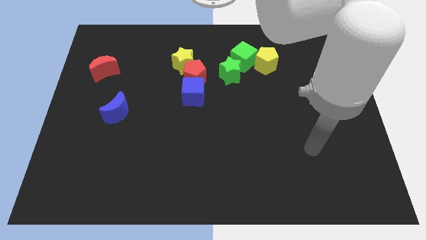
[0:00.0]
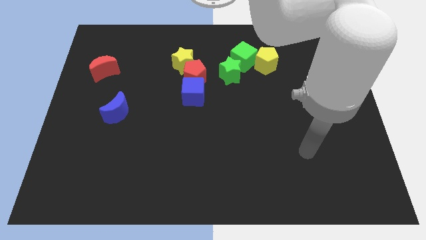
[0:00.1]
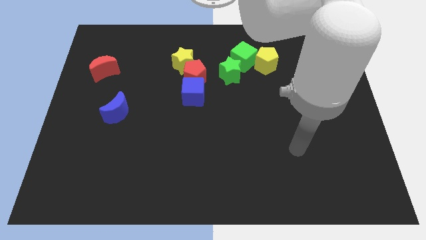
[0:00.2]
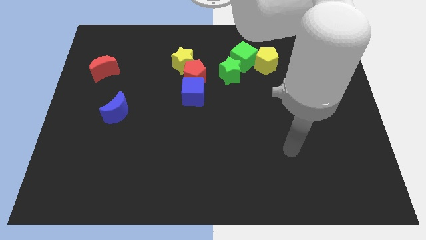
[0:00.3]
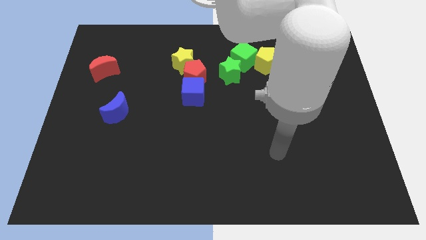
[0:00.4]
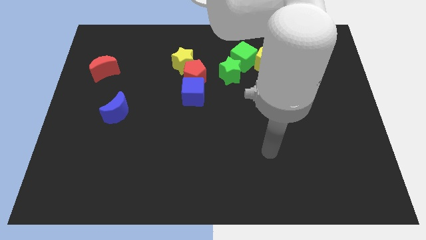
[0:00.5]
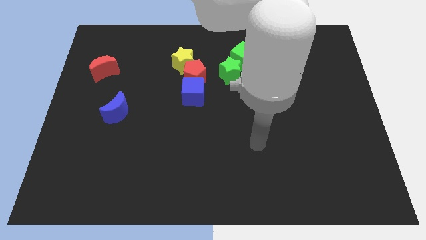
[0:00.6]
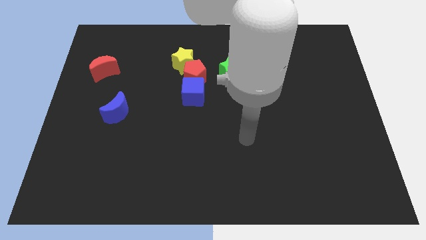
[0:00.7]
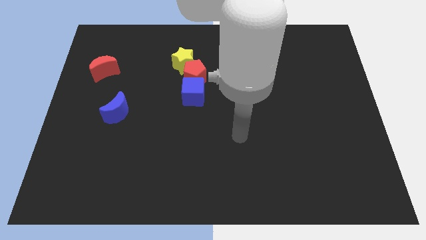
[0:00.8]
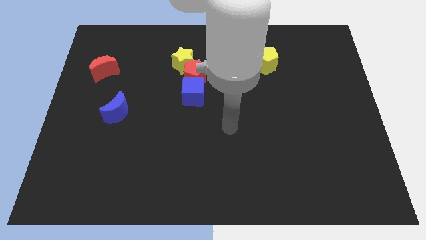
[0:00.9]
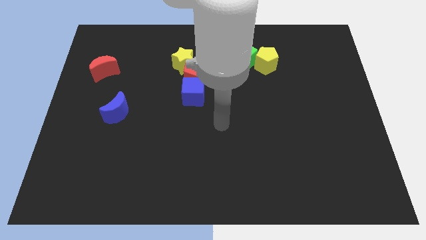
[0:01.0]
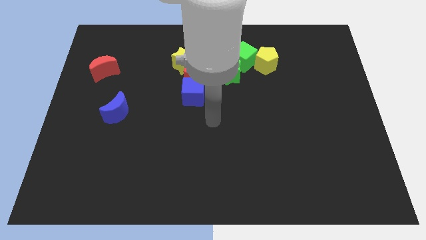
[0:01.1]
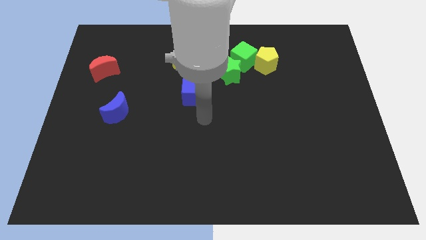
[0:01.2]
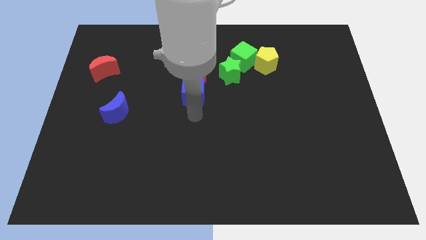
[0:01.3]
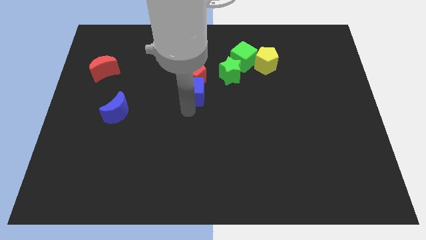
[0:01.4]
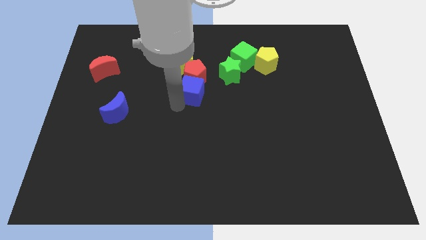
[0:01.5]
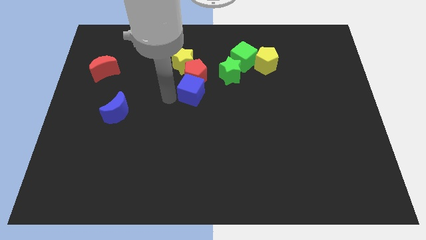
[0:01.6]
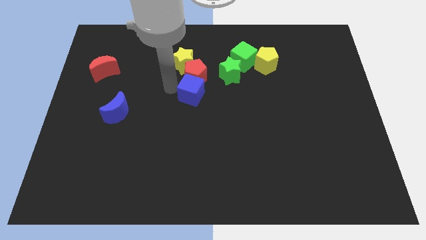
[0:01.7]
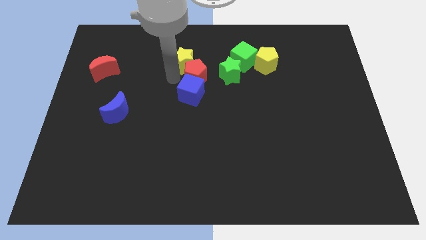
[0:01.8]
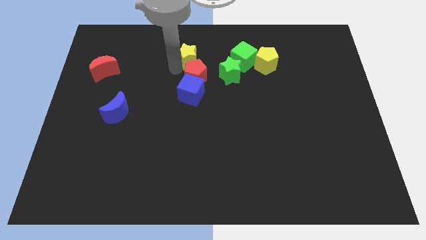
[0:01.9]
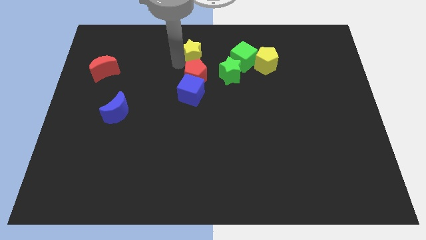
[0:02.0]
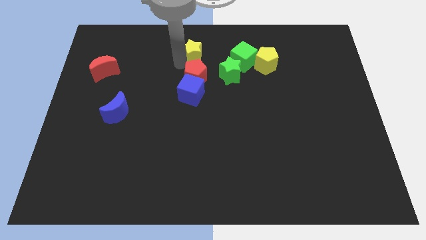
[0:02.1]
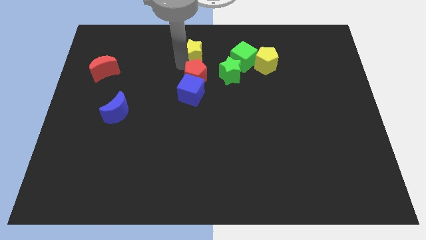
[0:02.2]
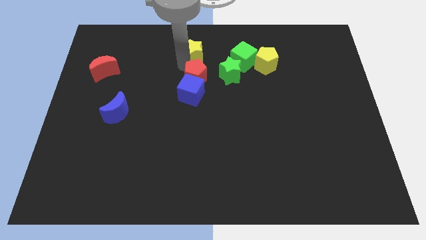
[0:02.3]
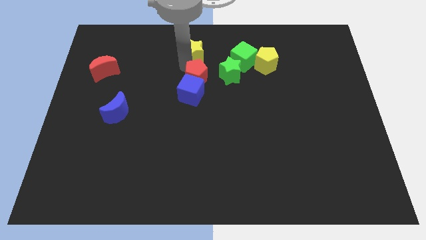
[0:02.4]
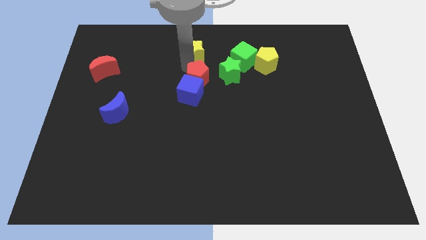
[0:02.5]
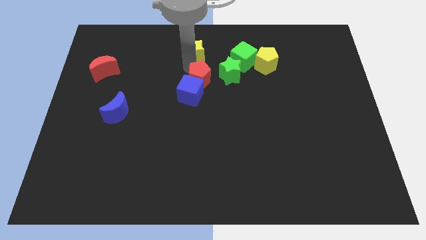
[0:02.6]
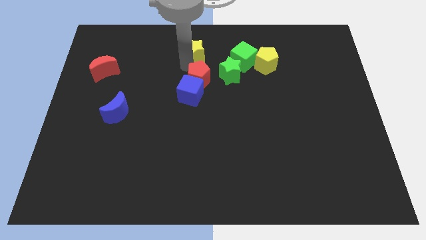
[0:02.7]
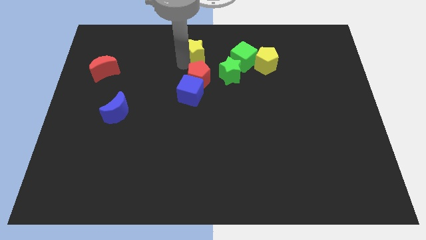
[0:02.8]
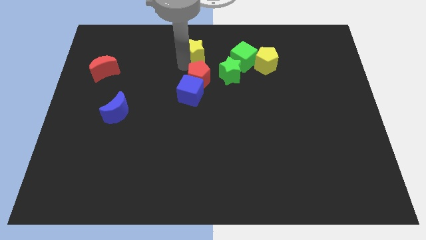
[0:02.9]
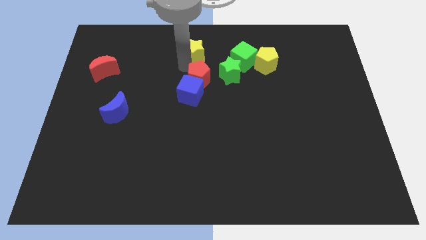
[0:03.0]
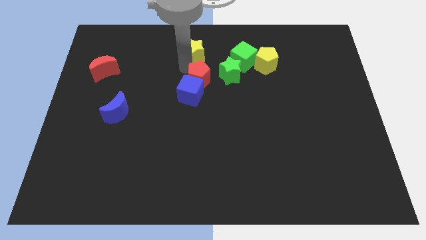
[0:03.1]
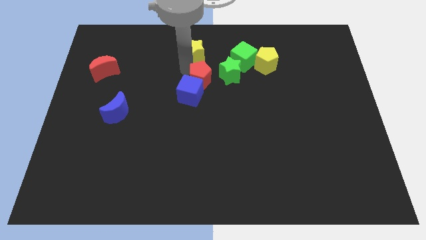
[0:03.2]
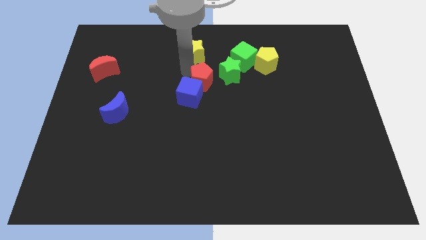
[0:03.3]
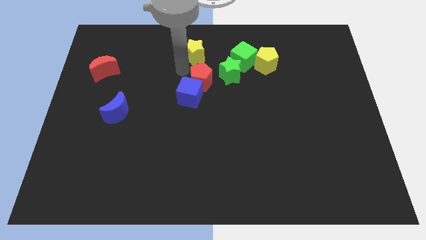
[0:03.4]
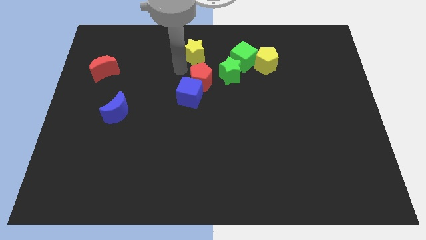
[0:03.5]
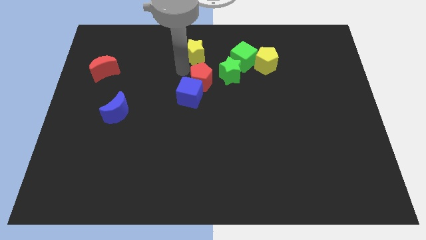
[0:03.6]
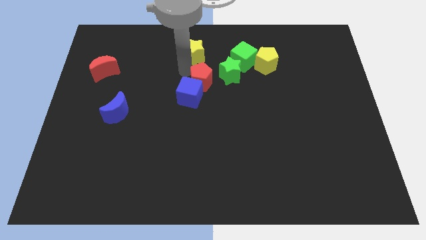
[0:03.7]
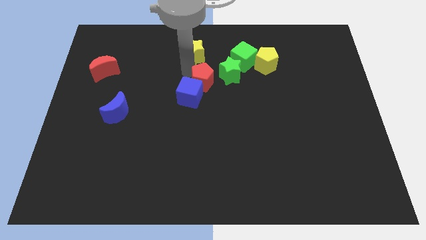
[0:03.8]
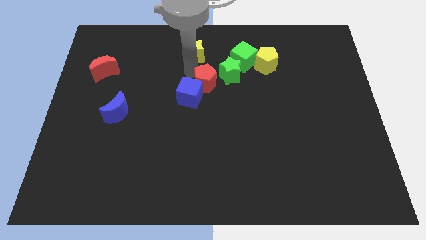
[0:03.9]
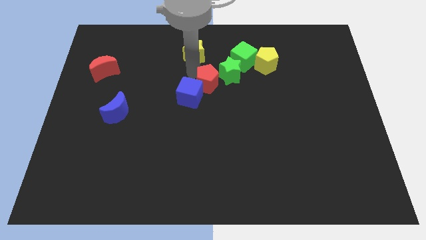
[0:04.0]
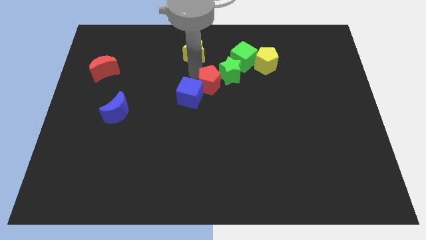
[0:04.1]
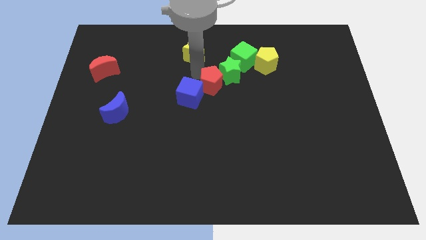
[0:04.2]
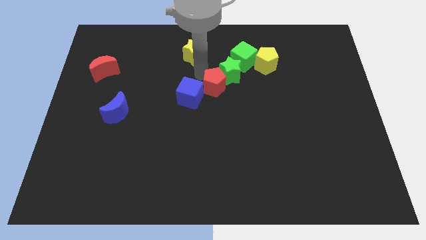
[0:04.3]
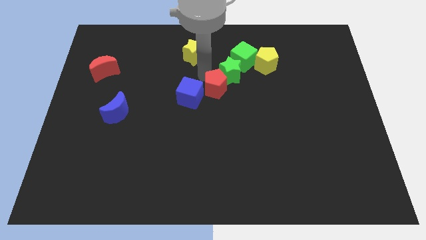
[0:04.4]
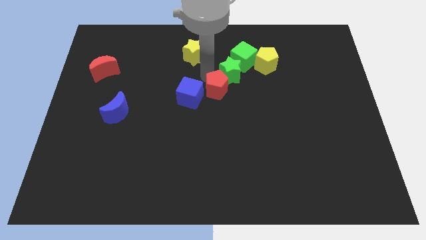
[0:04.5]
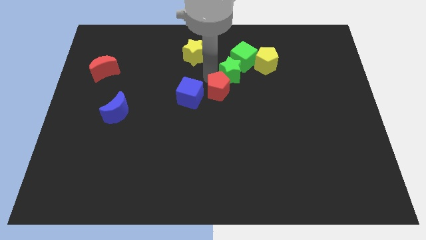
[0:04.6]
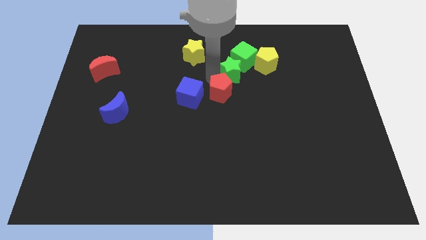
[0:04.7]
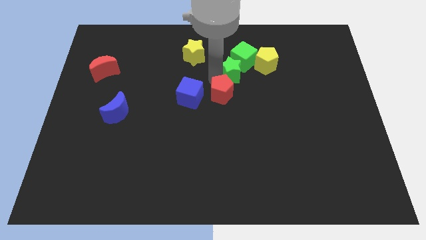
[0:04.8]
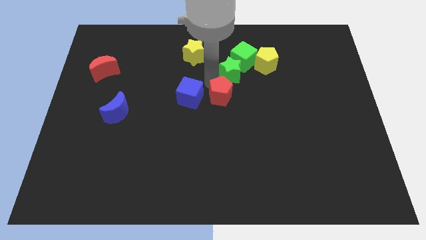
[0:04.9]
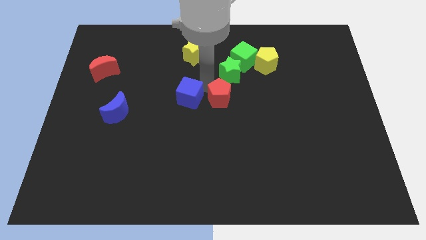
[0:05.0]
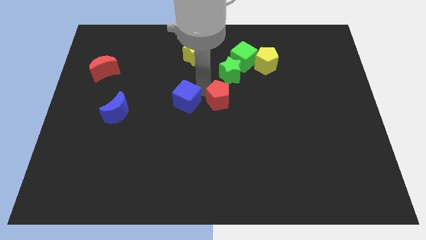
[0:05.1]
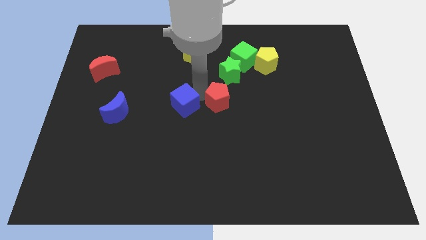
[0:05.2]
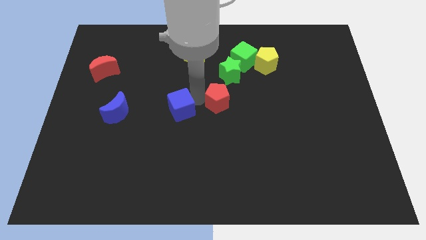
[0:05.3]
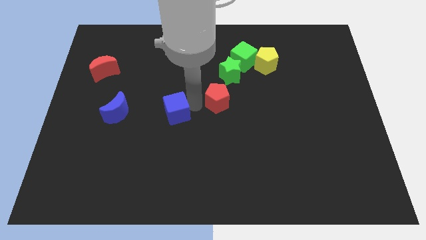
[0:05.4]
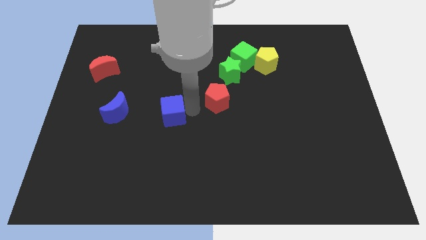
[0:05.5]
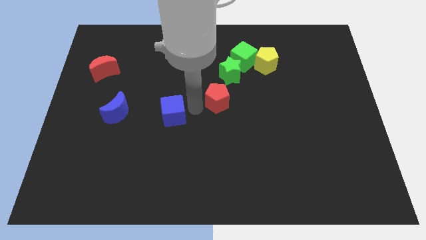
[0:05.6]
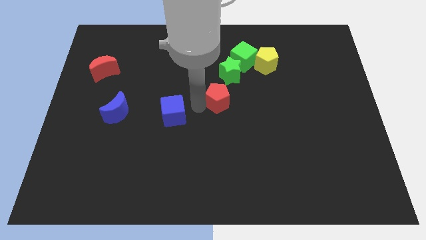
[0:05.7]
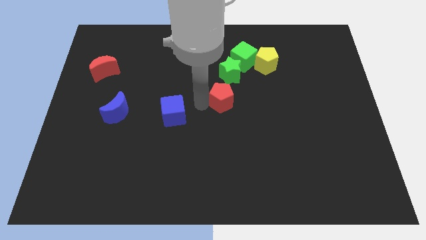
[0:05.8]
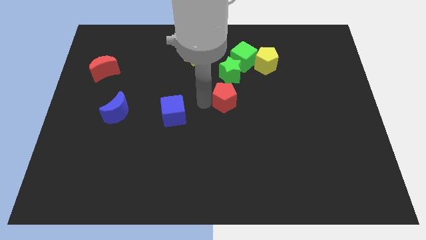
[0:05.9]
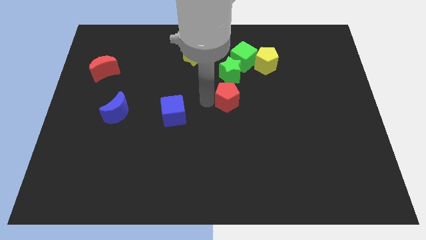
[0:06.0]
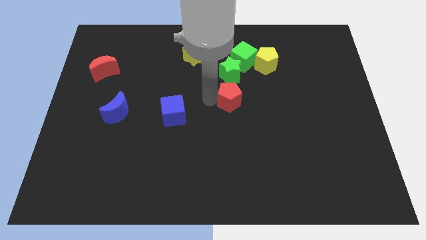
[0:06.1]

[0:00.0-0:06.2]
push the red pentagon below the green cube
